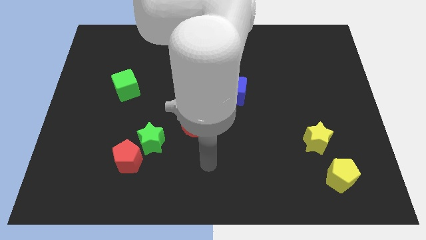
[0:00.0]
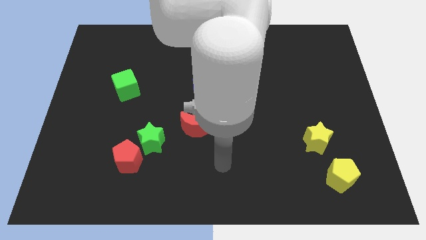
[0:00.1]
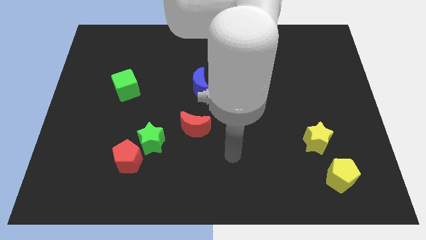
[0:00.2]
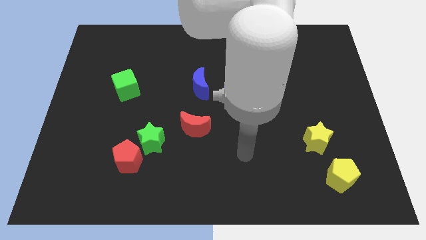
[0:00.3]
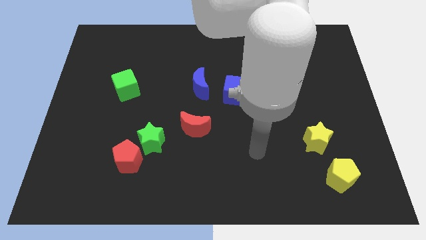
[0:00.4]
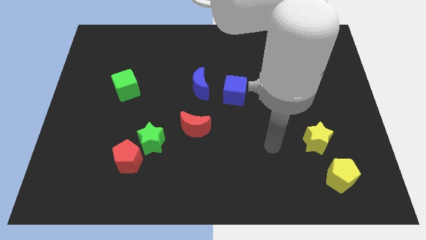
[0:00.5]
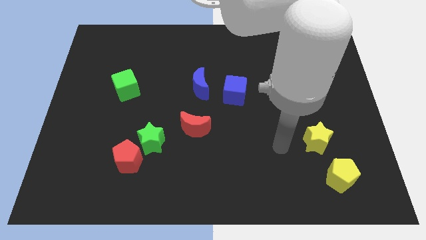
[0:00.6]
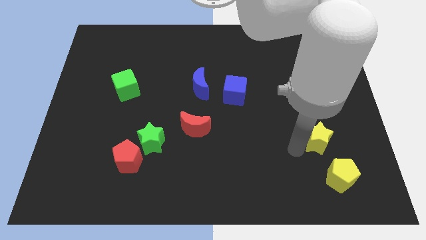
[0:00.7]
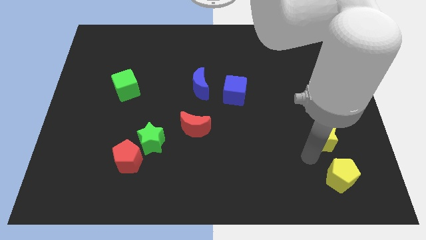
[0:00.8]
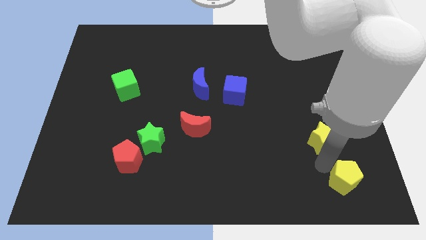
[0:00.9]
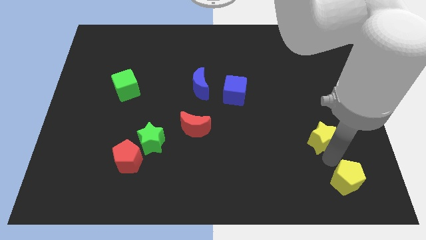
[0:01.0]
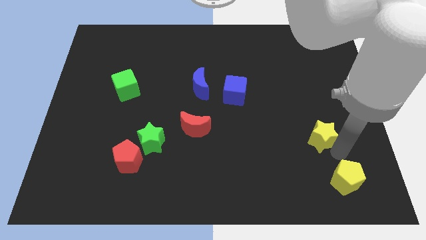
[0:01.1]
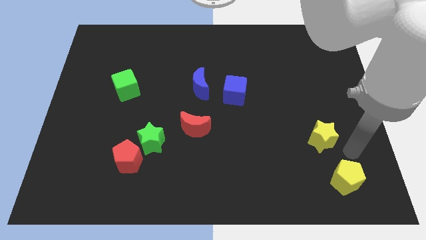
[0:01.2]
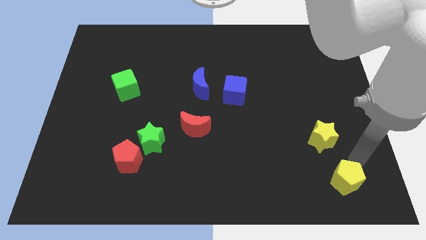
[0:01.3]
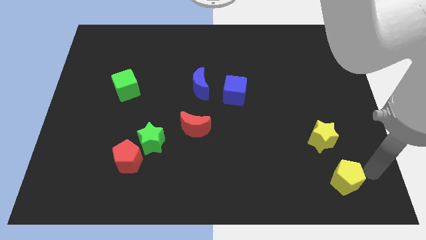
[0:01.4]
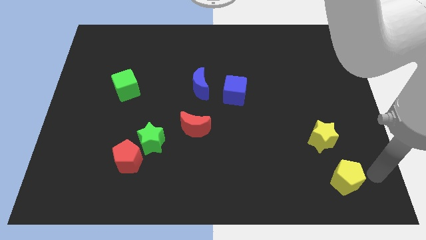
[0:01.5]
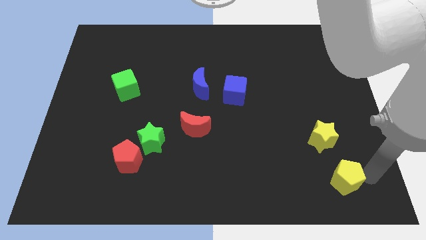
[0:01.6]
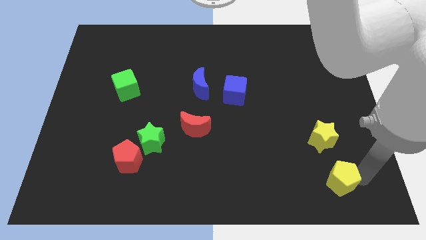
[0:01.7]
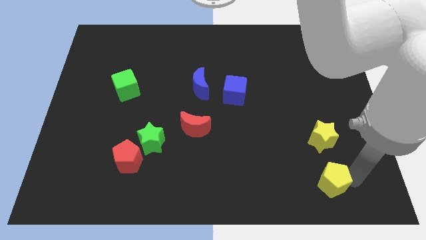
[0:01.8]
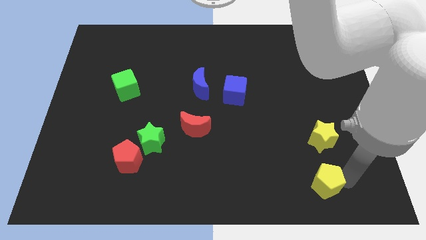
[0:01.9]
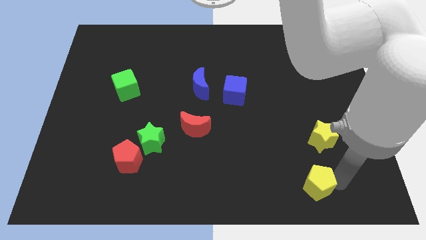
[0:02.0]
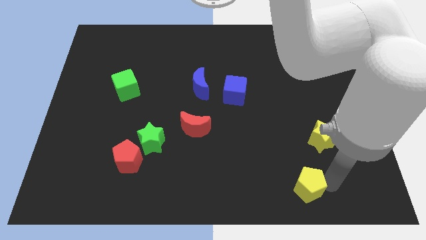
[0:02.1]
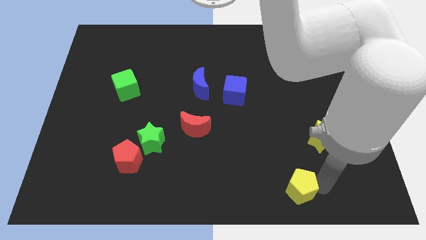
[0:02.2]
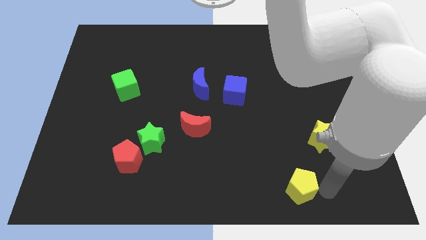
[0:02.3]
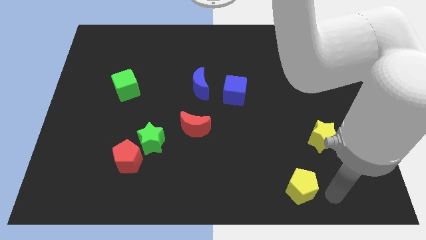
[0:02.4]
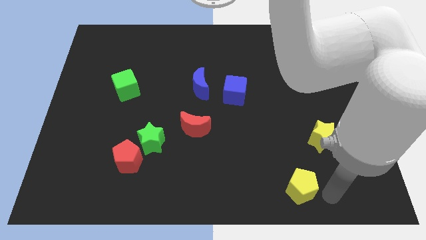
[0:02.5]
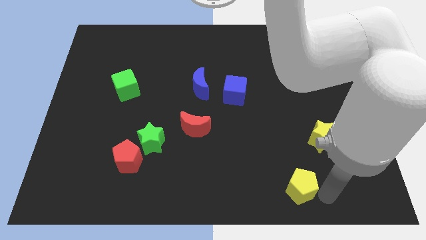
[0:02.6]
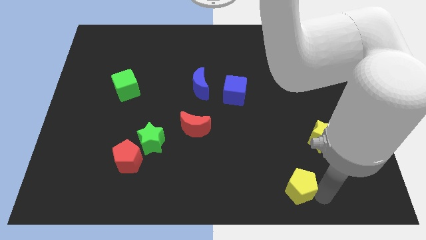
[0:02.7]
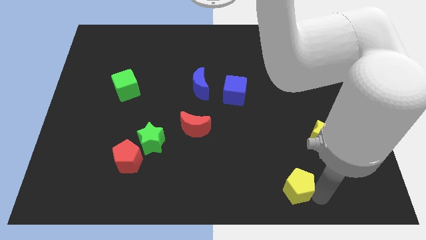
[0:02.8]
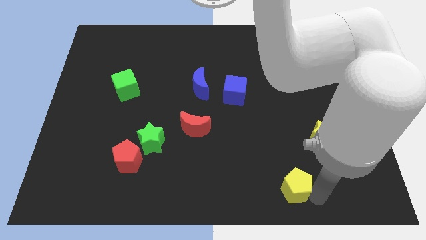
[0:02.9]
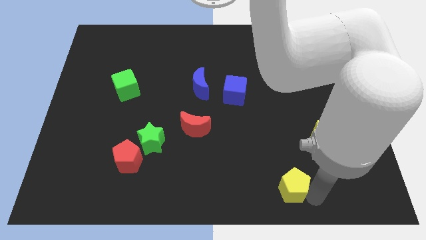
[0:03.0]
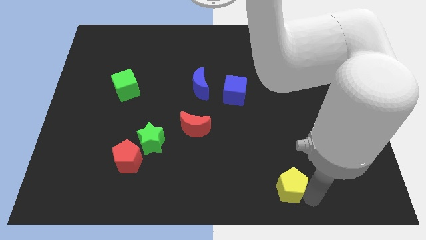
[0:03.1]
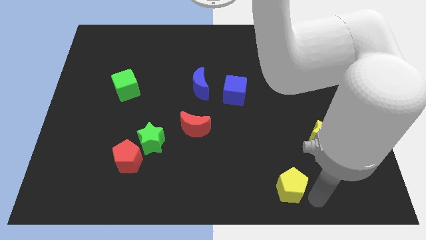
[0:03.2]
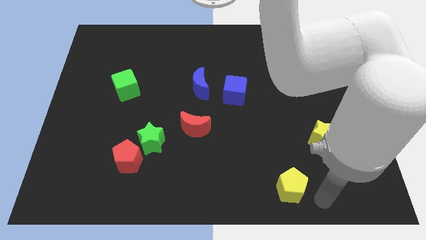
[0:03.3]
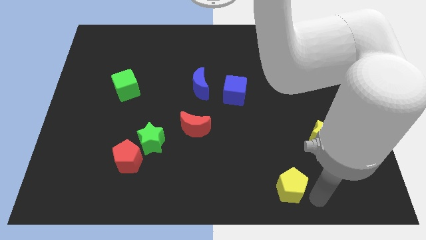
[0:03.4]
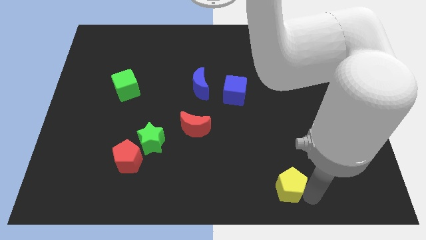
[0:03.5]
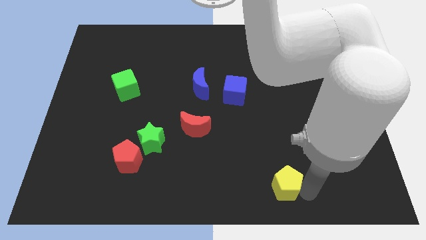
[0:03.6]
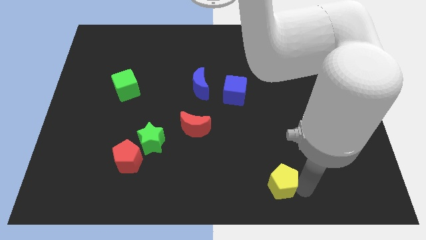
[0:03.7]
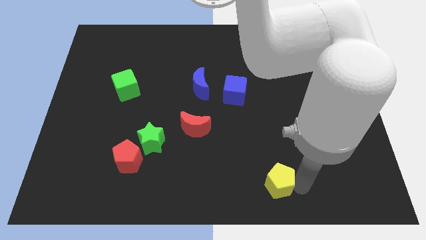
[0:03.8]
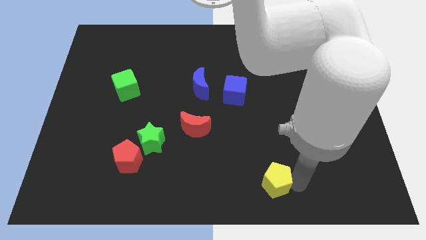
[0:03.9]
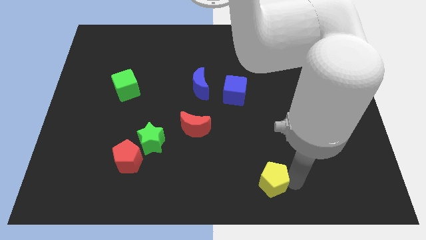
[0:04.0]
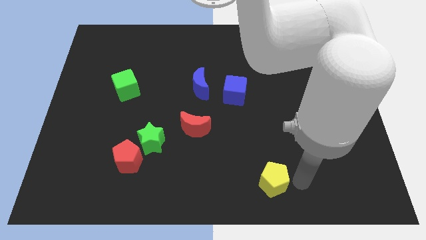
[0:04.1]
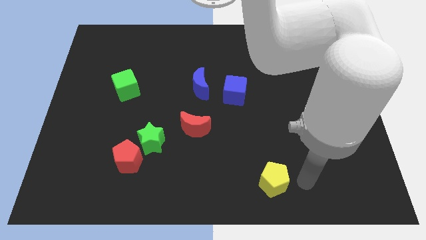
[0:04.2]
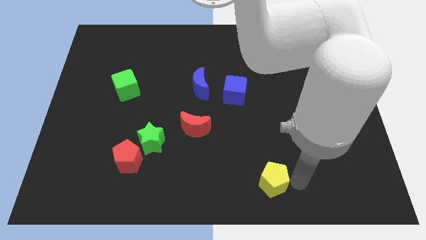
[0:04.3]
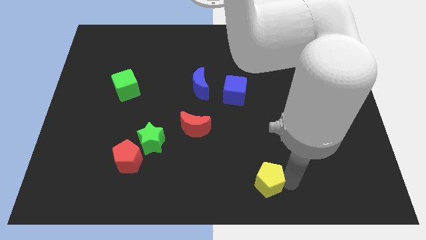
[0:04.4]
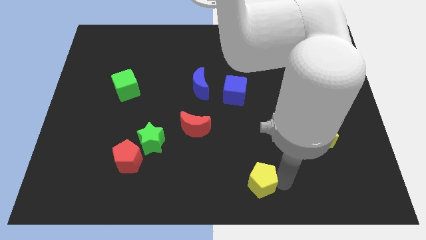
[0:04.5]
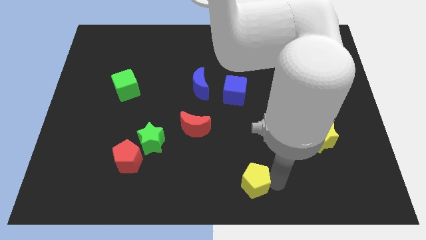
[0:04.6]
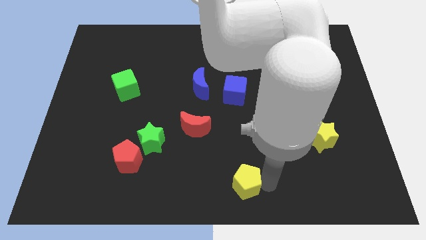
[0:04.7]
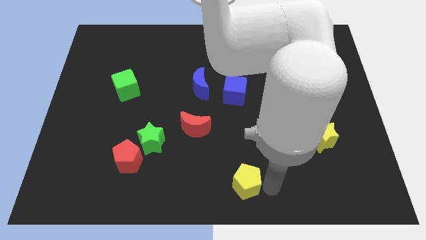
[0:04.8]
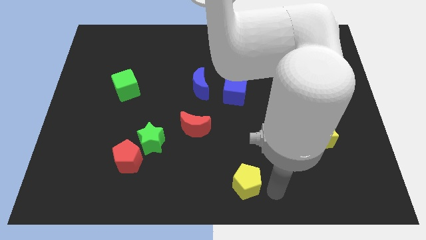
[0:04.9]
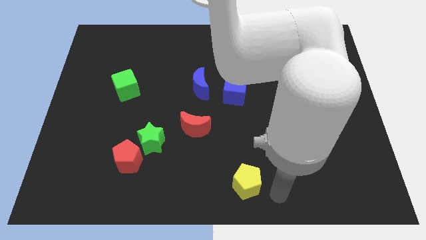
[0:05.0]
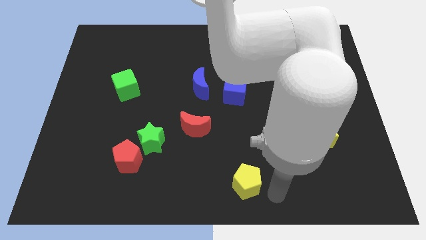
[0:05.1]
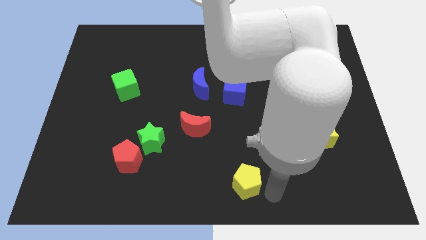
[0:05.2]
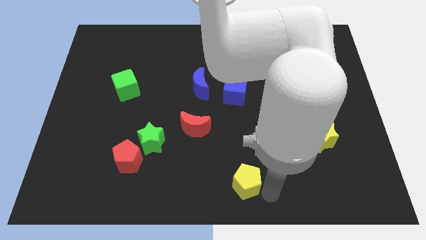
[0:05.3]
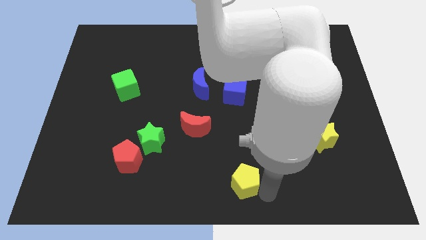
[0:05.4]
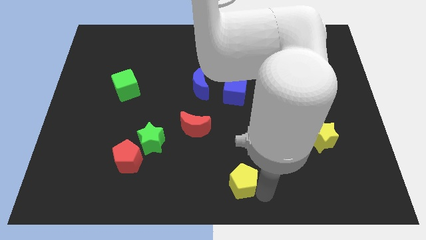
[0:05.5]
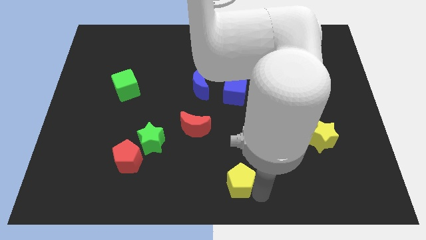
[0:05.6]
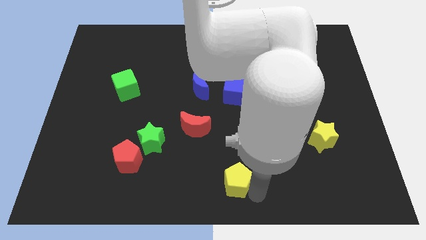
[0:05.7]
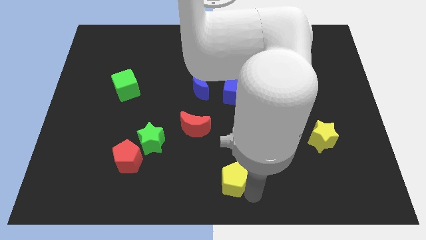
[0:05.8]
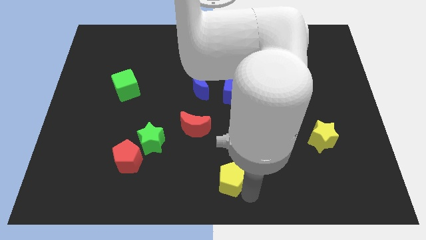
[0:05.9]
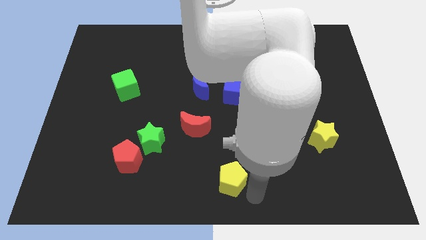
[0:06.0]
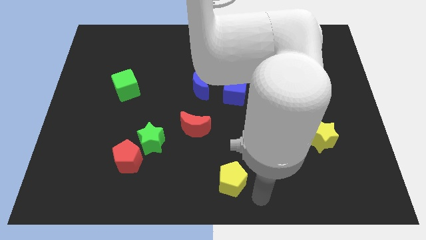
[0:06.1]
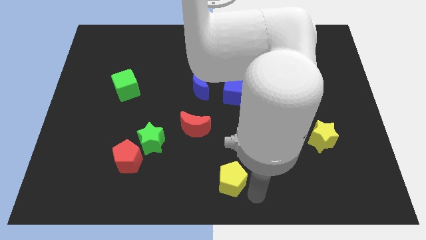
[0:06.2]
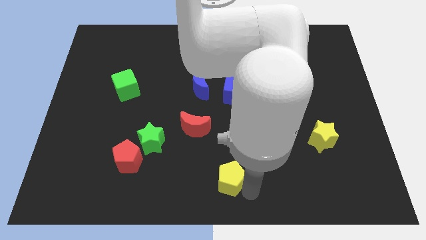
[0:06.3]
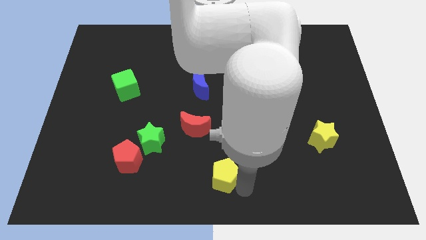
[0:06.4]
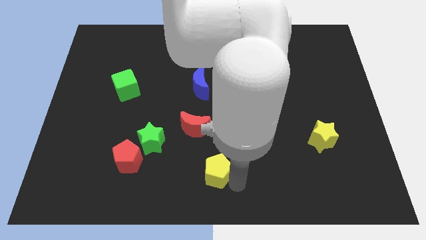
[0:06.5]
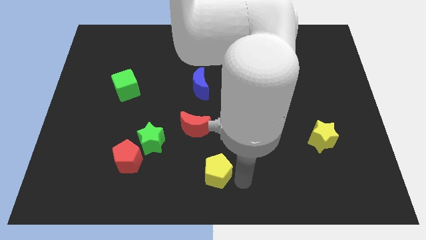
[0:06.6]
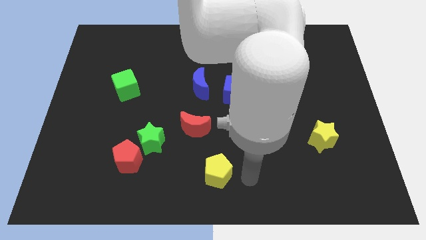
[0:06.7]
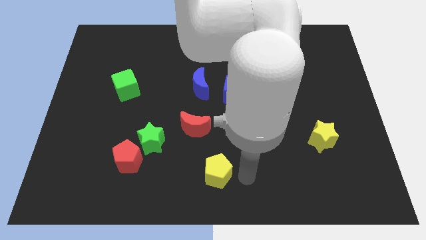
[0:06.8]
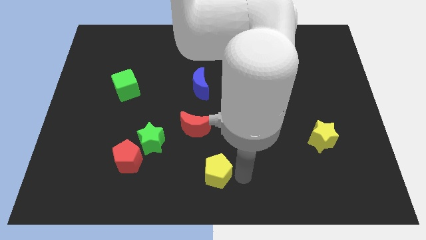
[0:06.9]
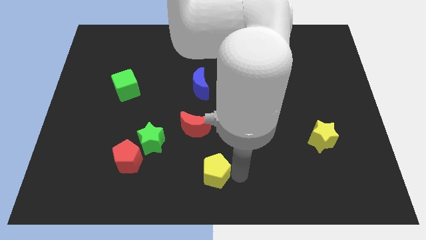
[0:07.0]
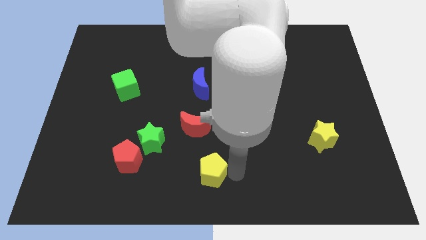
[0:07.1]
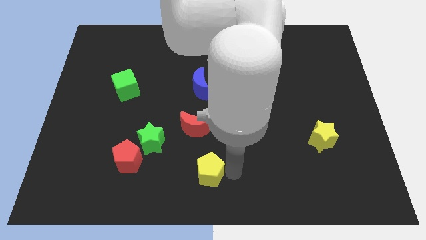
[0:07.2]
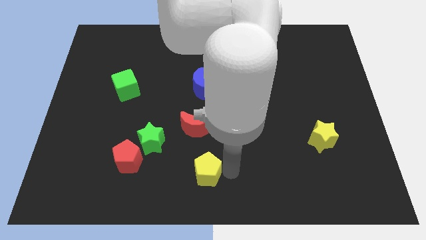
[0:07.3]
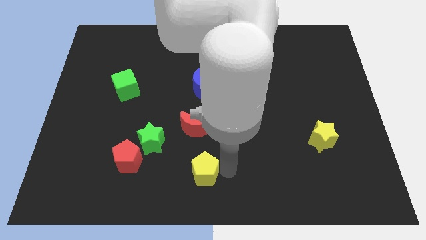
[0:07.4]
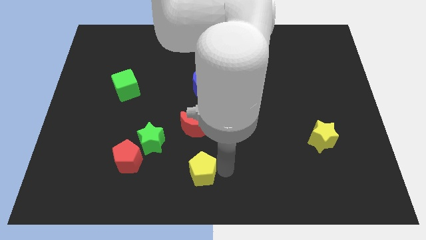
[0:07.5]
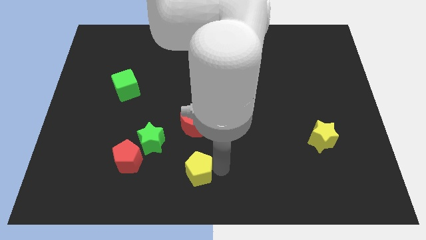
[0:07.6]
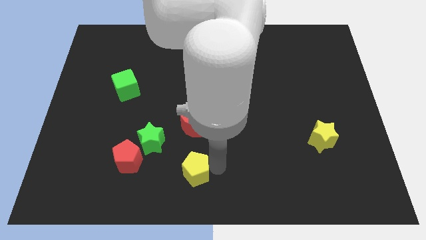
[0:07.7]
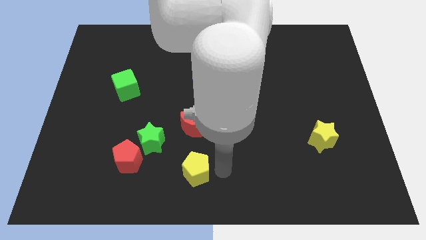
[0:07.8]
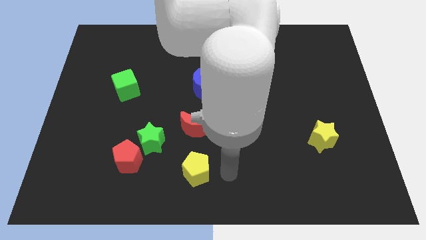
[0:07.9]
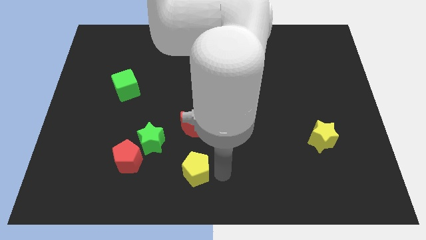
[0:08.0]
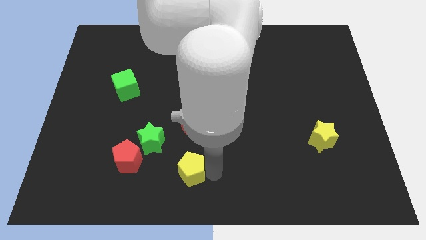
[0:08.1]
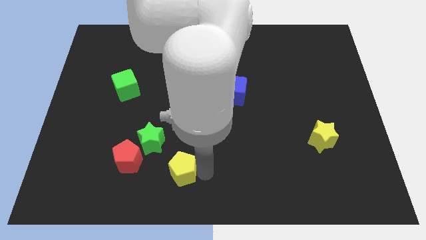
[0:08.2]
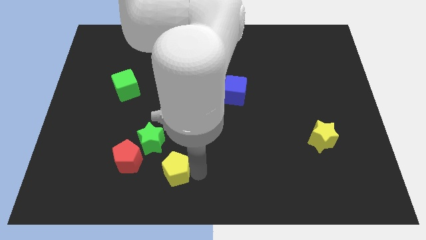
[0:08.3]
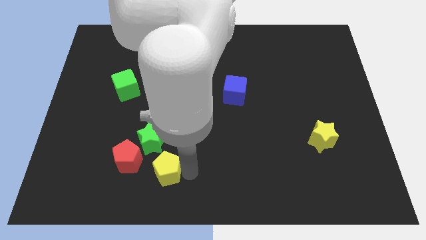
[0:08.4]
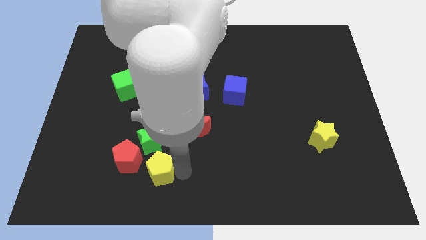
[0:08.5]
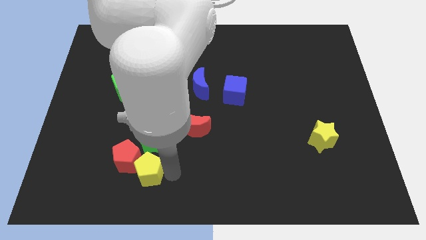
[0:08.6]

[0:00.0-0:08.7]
put the yellow pentagon close to the red pentagon
